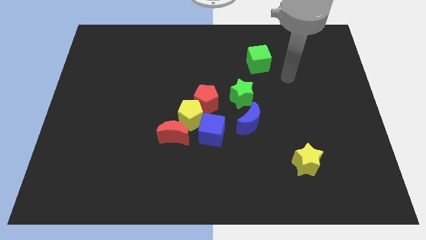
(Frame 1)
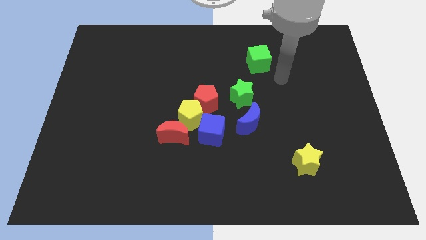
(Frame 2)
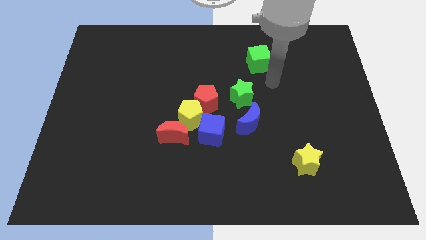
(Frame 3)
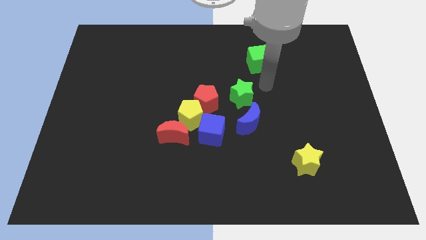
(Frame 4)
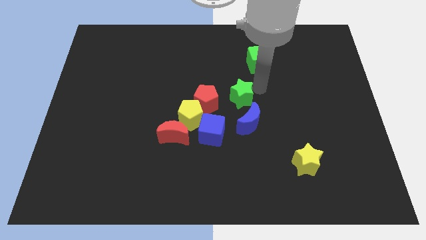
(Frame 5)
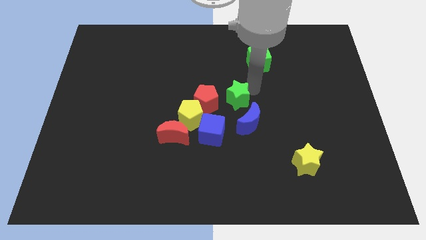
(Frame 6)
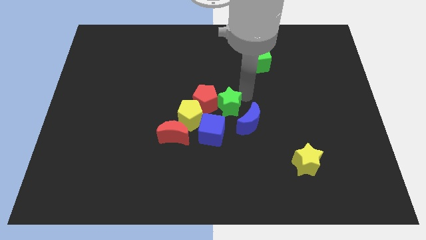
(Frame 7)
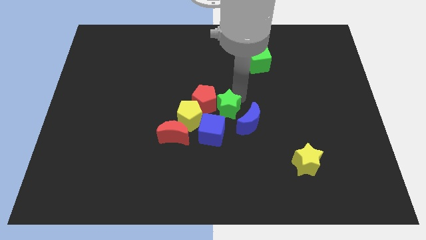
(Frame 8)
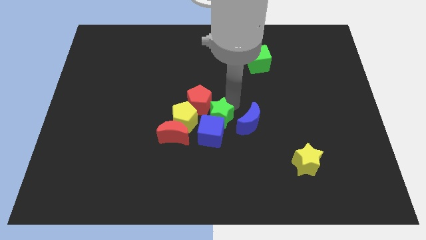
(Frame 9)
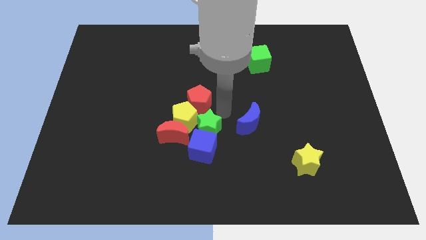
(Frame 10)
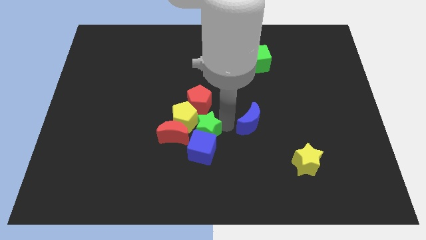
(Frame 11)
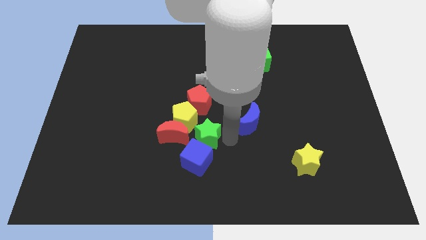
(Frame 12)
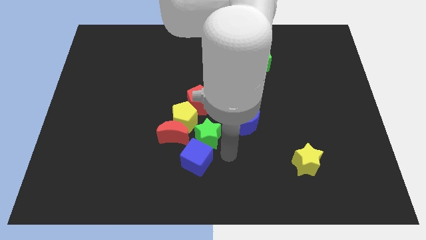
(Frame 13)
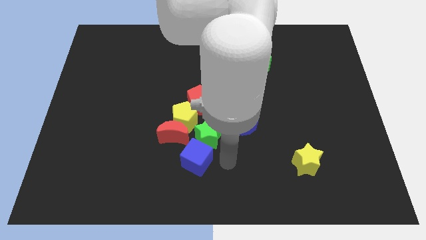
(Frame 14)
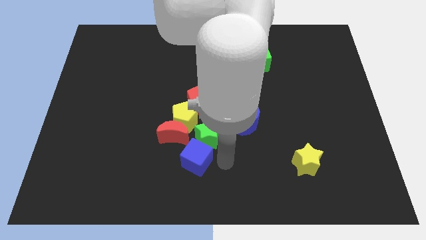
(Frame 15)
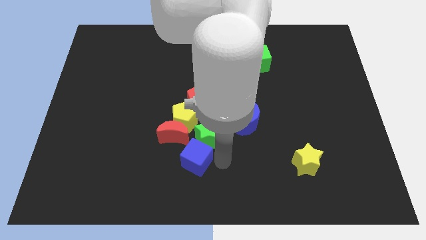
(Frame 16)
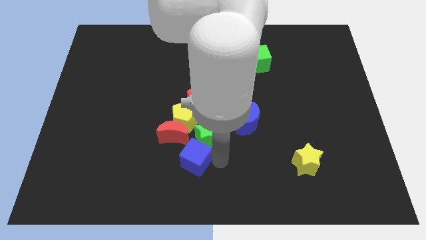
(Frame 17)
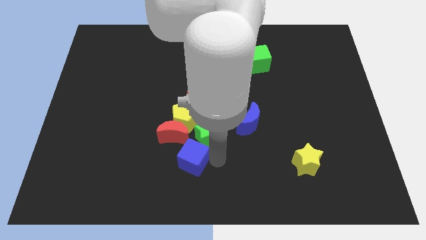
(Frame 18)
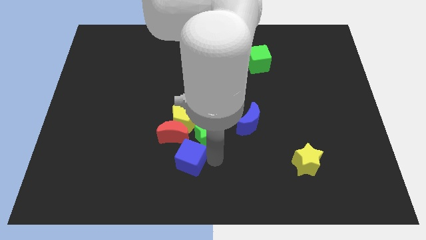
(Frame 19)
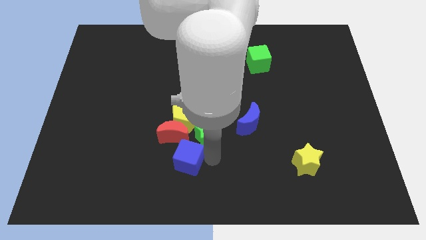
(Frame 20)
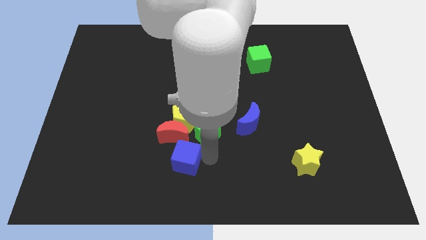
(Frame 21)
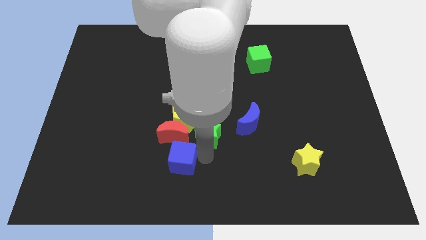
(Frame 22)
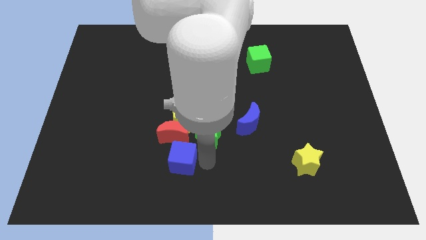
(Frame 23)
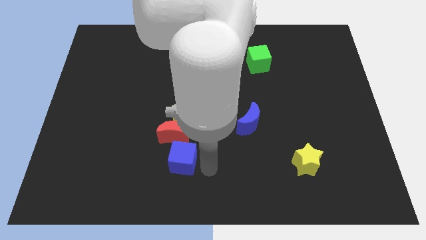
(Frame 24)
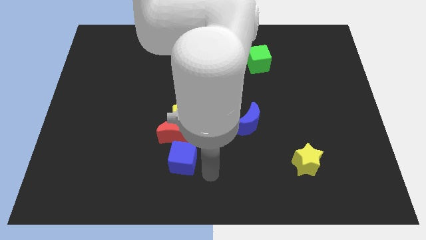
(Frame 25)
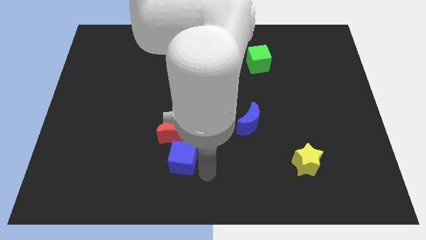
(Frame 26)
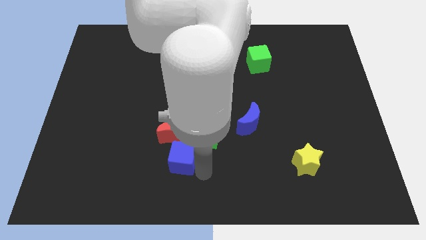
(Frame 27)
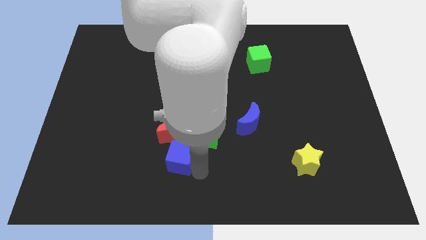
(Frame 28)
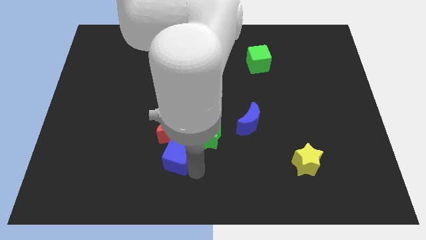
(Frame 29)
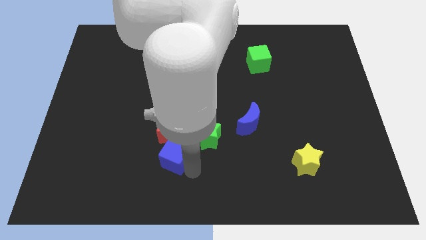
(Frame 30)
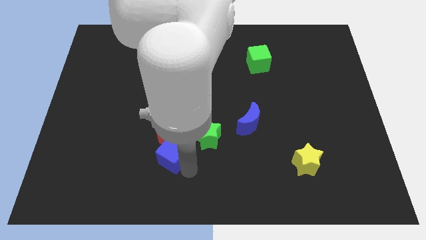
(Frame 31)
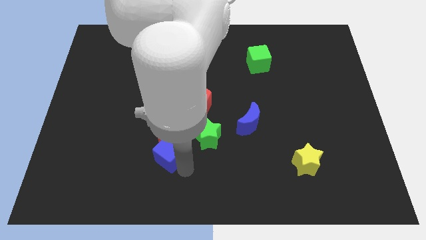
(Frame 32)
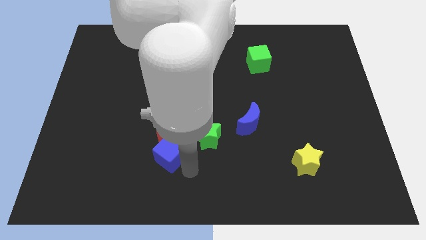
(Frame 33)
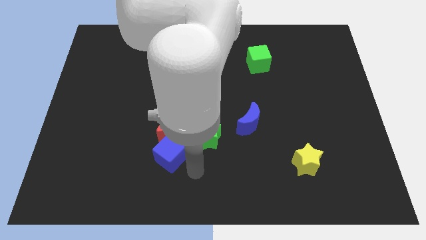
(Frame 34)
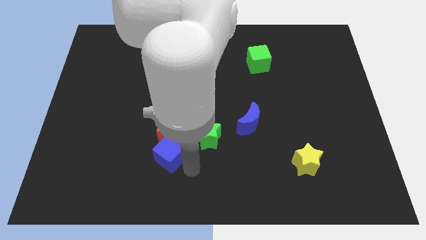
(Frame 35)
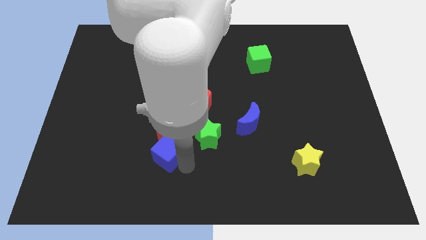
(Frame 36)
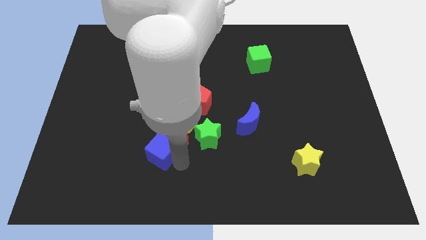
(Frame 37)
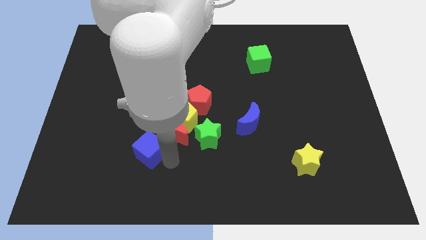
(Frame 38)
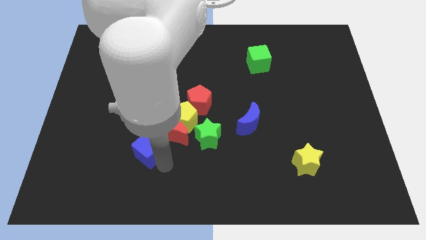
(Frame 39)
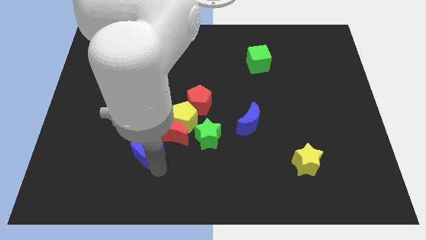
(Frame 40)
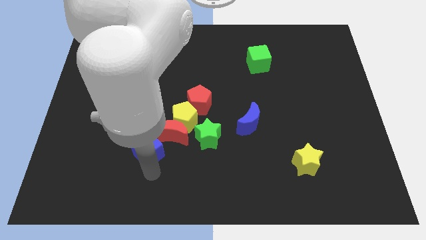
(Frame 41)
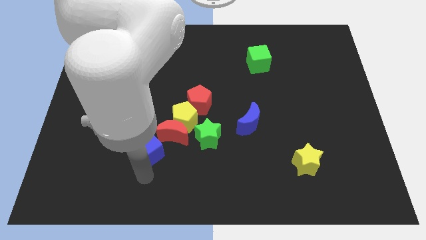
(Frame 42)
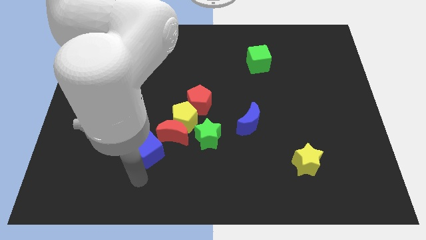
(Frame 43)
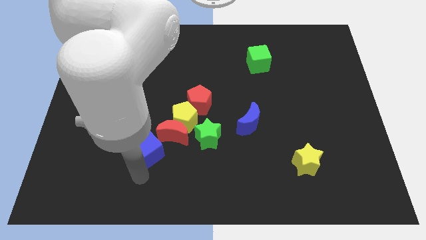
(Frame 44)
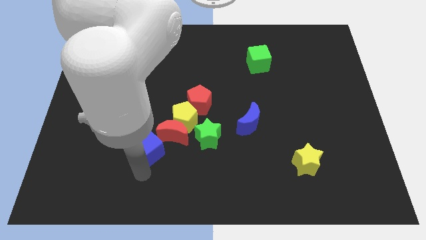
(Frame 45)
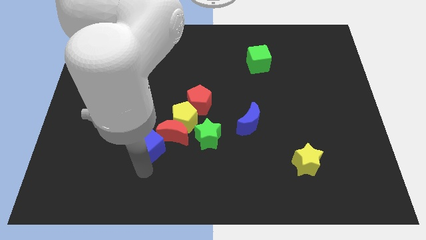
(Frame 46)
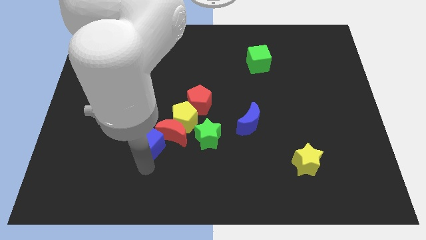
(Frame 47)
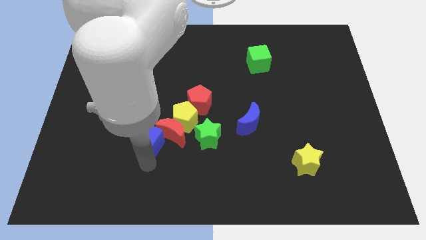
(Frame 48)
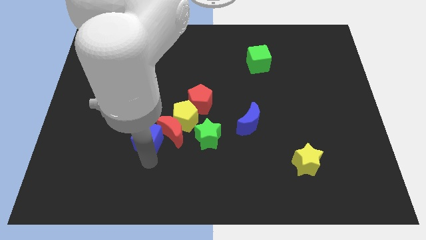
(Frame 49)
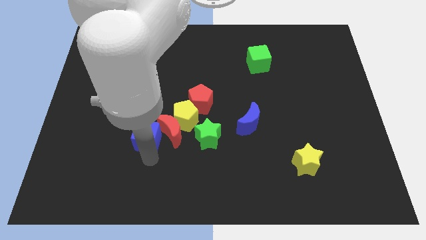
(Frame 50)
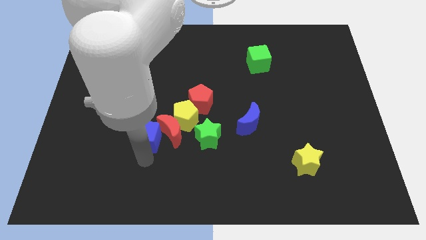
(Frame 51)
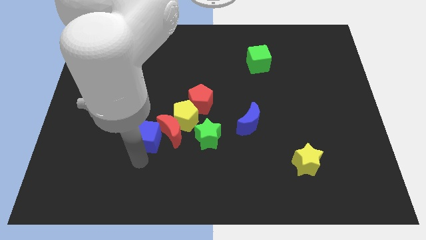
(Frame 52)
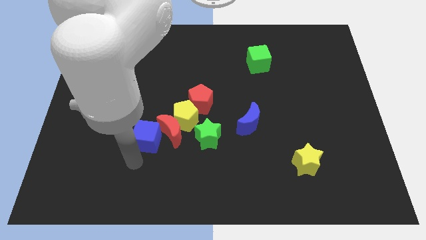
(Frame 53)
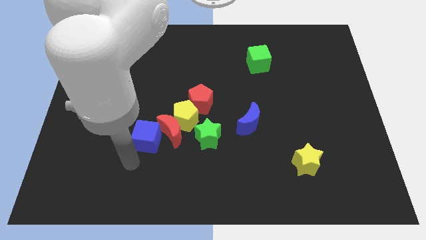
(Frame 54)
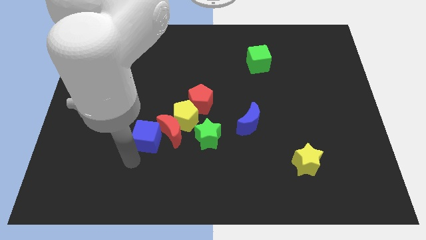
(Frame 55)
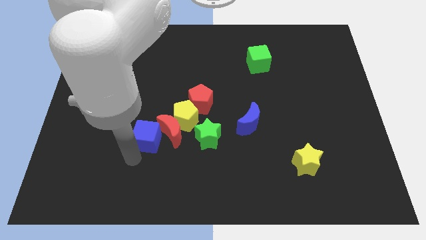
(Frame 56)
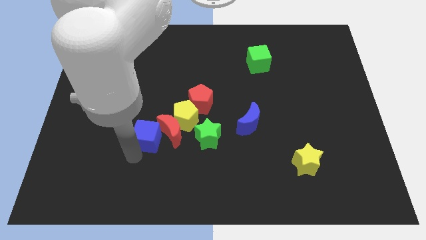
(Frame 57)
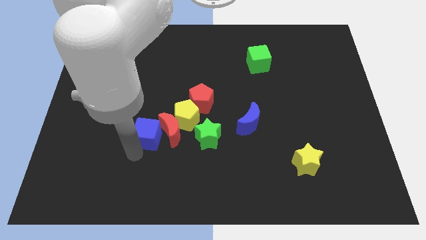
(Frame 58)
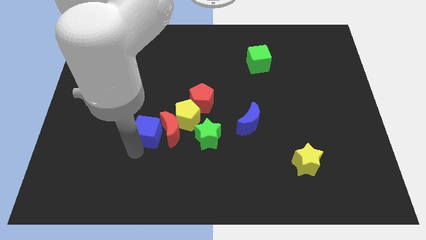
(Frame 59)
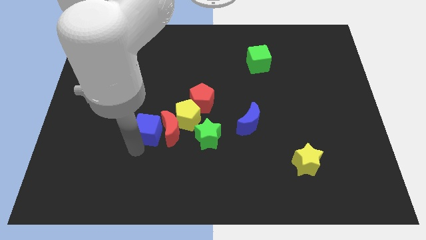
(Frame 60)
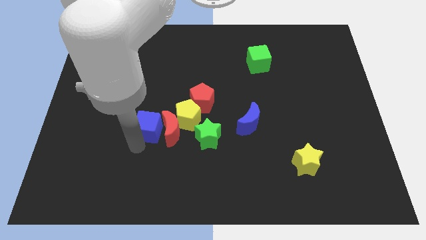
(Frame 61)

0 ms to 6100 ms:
move the blue cube up and left a bit

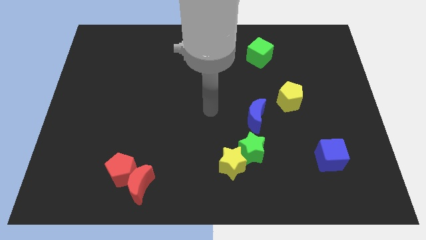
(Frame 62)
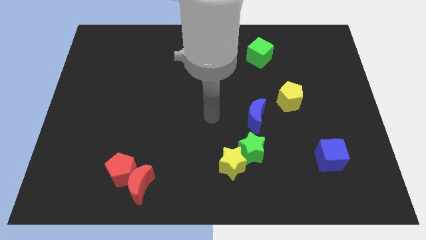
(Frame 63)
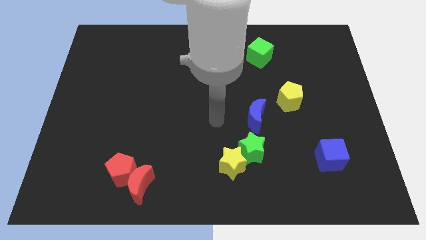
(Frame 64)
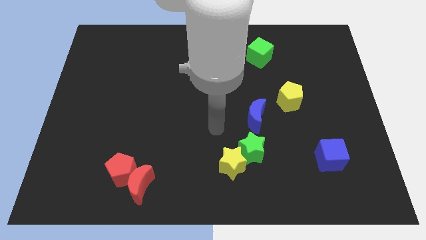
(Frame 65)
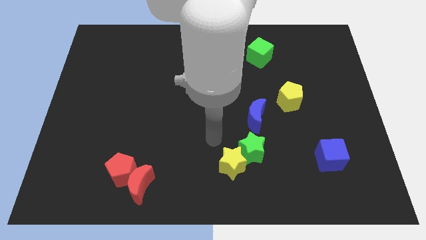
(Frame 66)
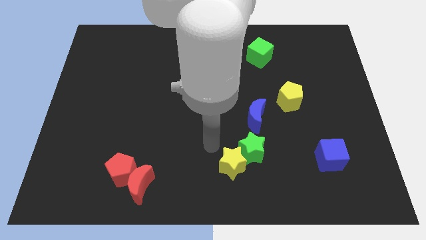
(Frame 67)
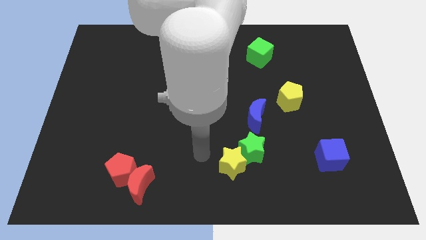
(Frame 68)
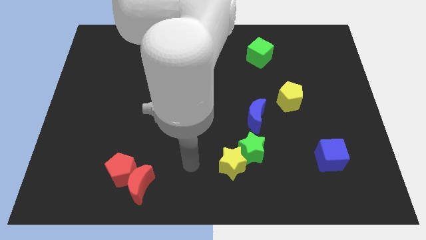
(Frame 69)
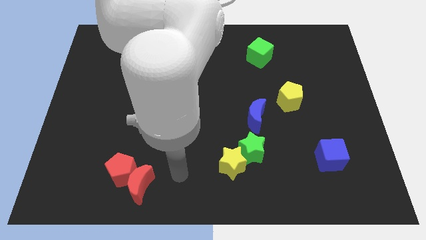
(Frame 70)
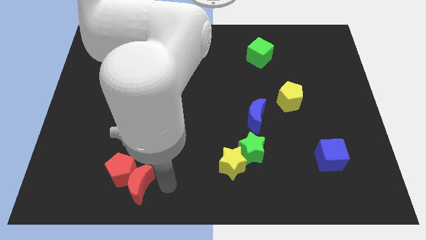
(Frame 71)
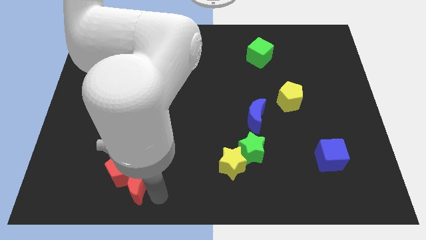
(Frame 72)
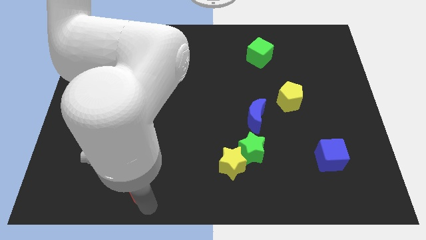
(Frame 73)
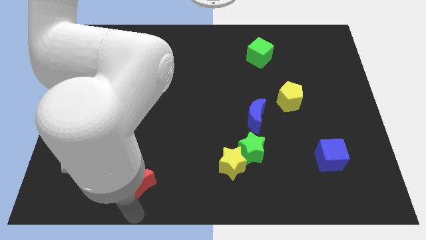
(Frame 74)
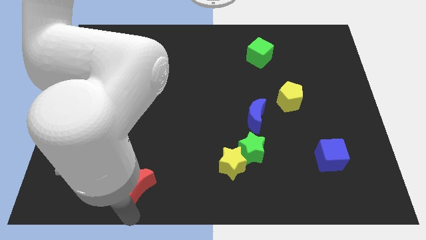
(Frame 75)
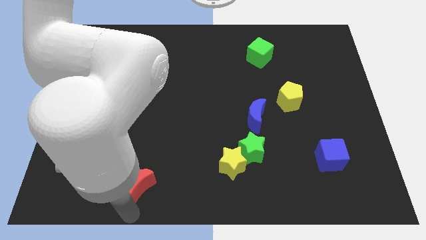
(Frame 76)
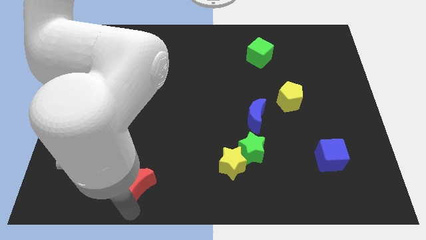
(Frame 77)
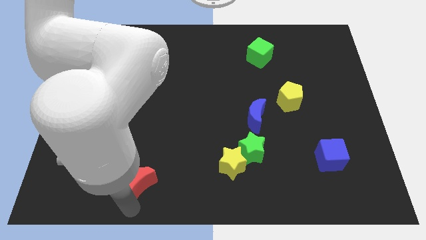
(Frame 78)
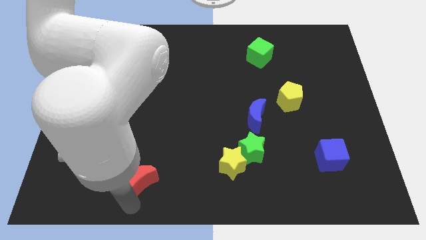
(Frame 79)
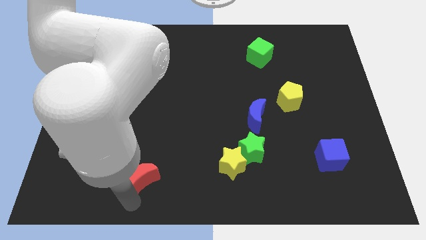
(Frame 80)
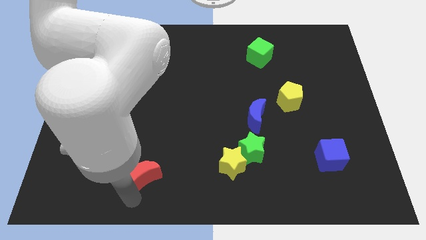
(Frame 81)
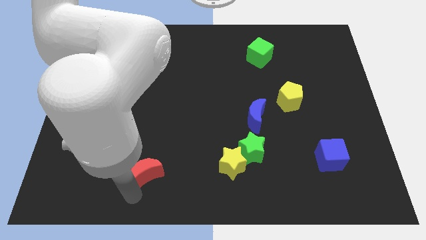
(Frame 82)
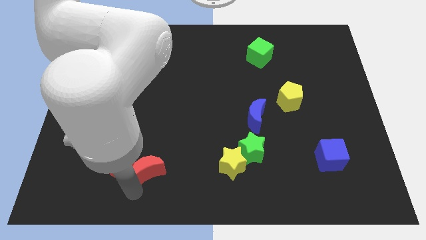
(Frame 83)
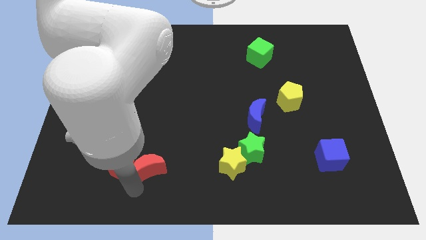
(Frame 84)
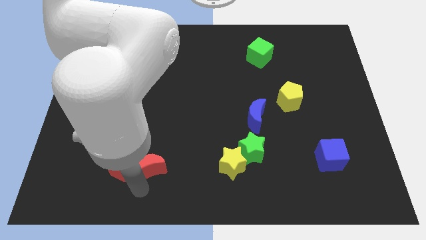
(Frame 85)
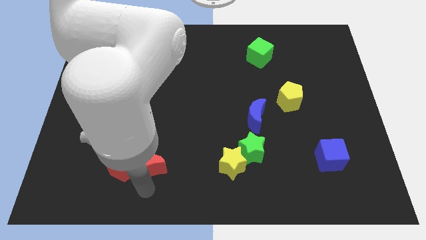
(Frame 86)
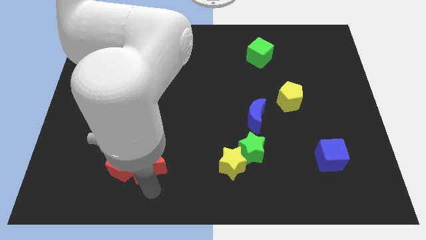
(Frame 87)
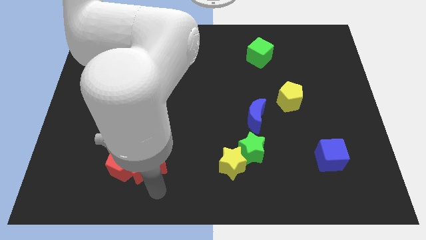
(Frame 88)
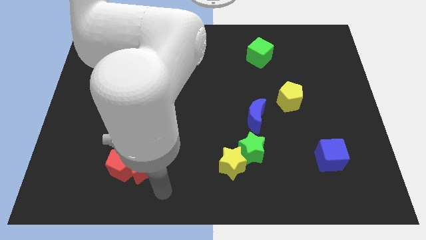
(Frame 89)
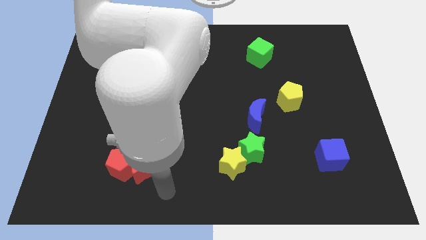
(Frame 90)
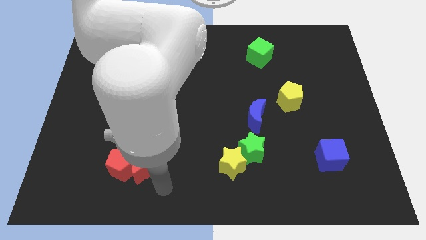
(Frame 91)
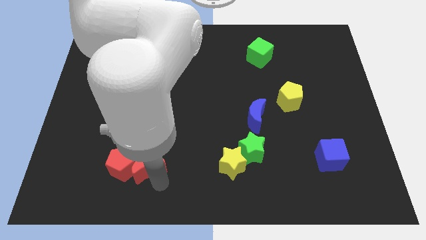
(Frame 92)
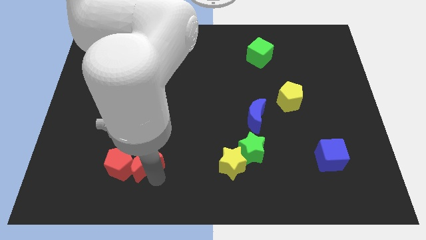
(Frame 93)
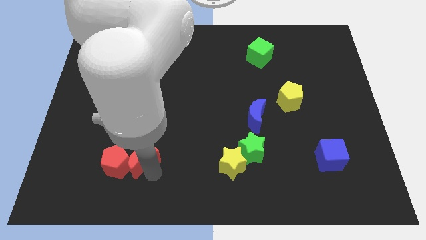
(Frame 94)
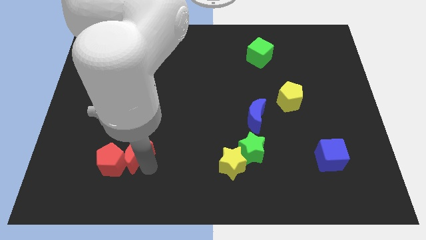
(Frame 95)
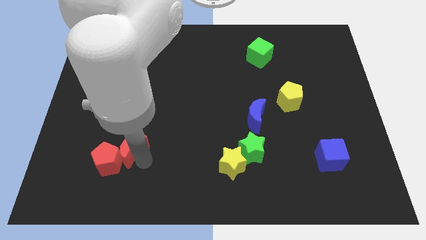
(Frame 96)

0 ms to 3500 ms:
slightly slide the red moon diagonally up and left
